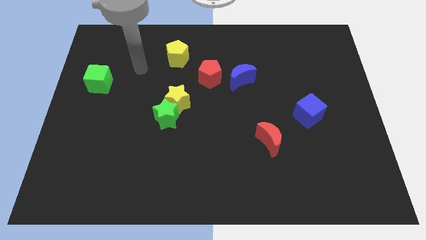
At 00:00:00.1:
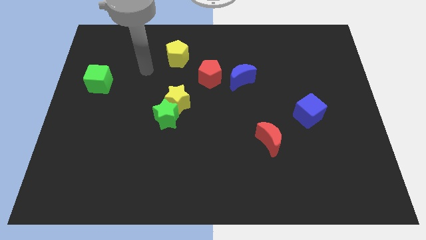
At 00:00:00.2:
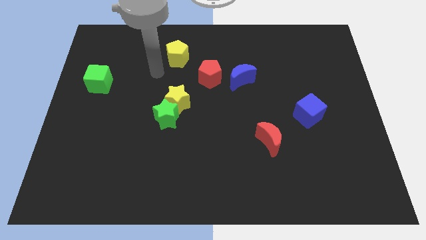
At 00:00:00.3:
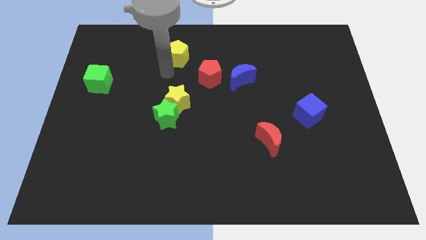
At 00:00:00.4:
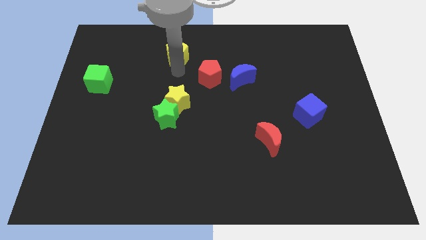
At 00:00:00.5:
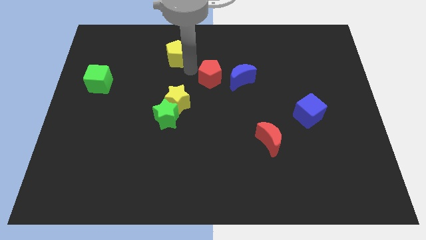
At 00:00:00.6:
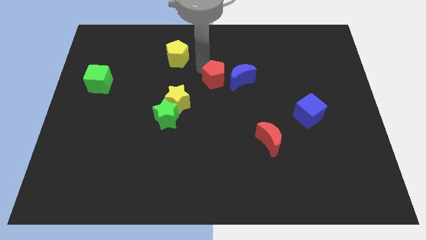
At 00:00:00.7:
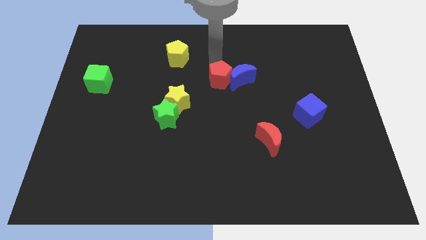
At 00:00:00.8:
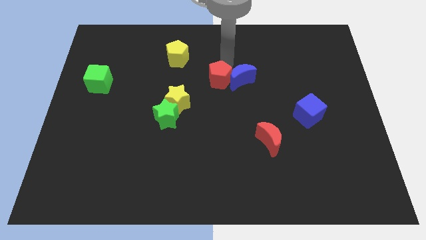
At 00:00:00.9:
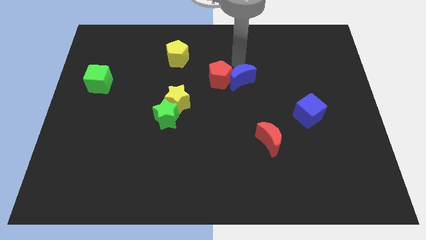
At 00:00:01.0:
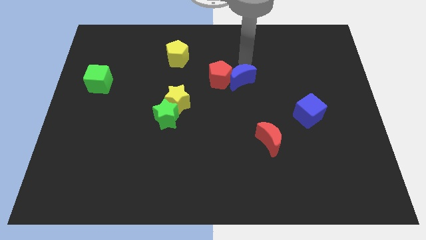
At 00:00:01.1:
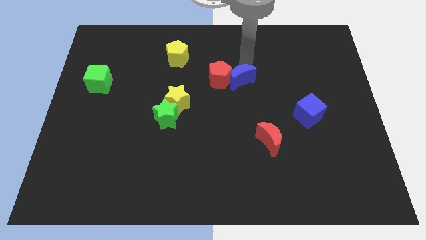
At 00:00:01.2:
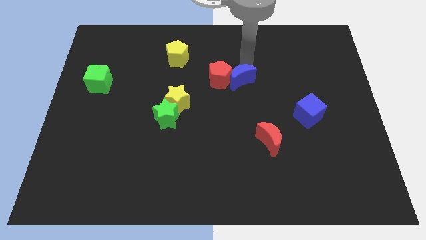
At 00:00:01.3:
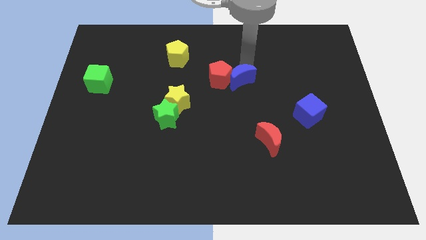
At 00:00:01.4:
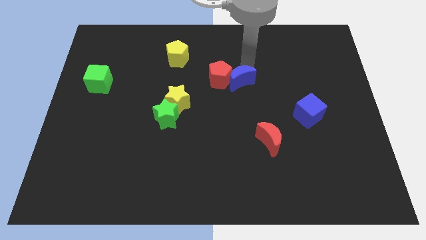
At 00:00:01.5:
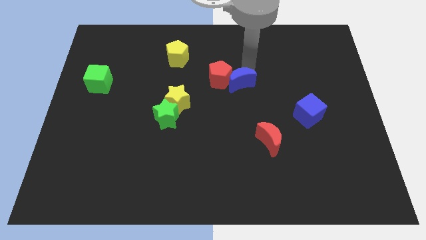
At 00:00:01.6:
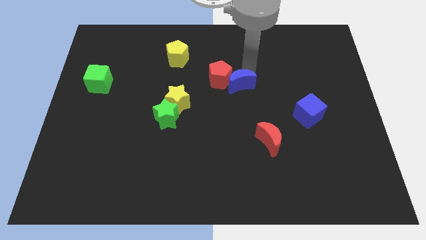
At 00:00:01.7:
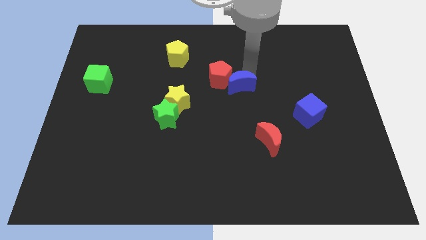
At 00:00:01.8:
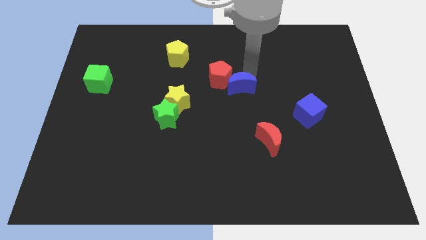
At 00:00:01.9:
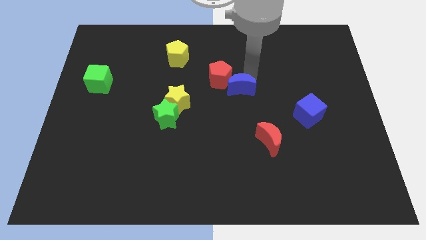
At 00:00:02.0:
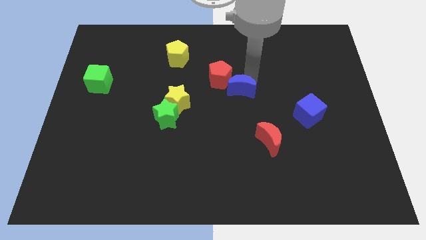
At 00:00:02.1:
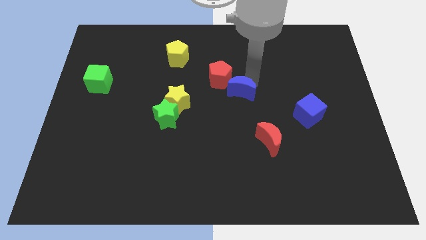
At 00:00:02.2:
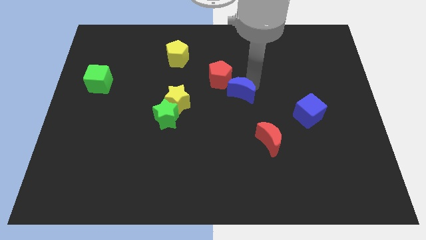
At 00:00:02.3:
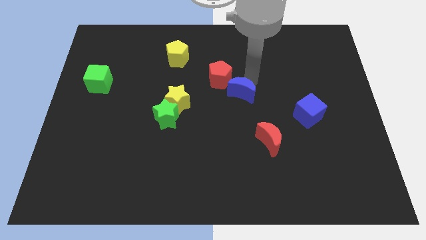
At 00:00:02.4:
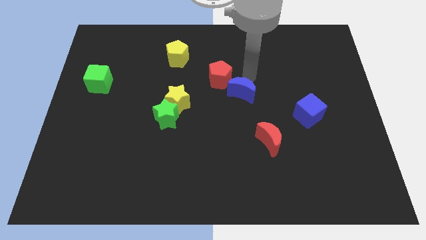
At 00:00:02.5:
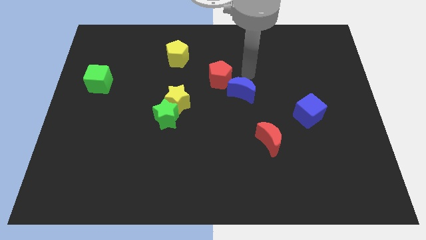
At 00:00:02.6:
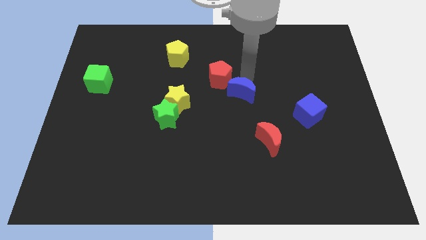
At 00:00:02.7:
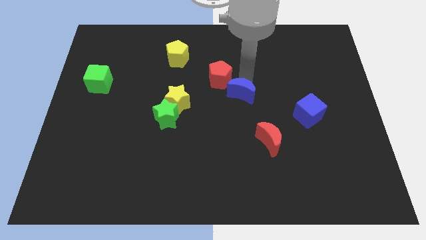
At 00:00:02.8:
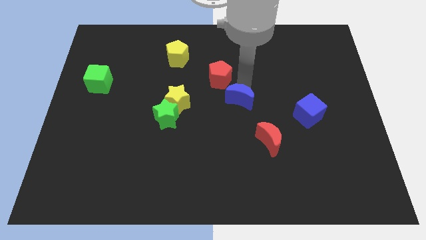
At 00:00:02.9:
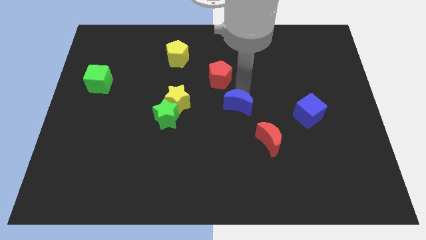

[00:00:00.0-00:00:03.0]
move the blue moon downwards slightly

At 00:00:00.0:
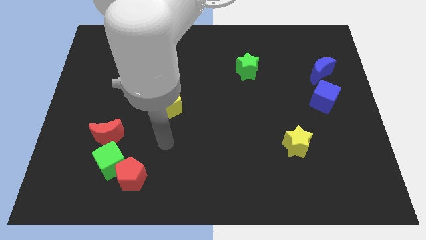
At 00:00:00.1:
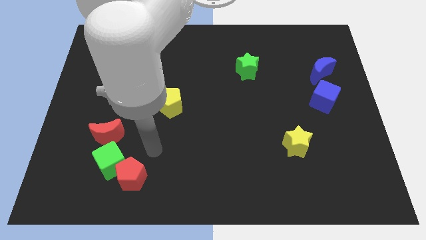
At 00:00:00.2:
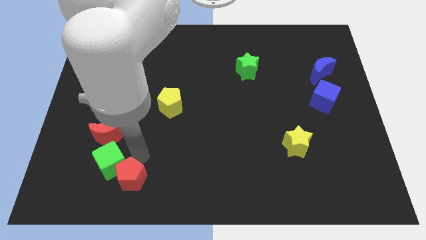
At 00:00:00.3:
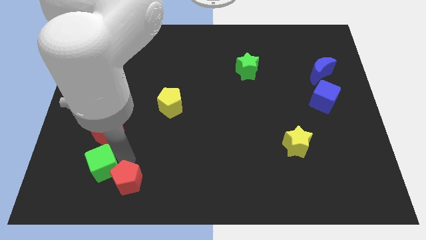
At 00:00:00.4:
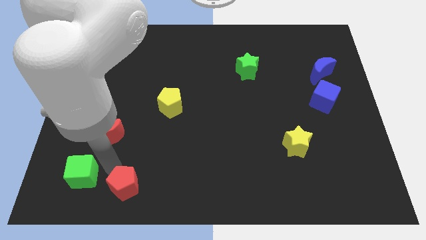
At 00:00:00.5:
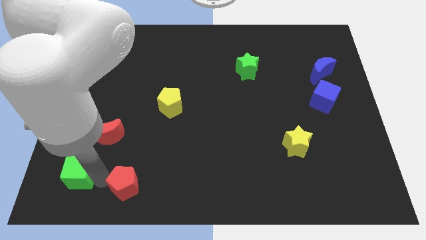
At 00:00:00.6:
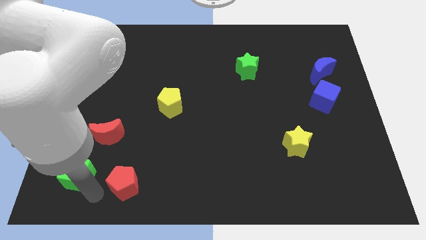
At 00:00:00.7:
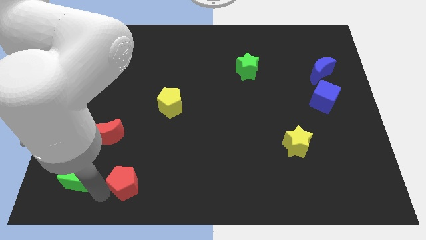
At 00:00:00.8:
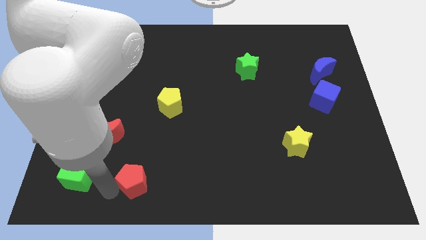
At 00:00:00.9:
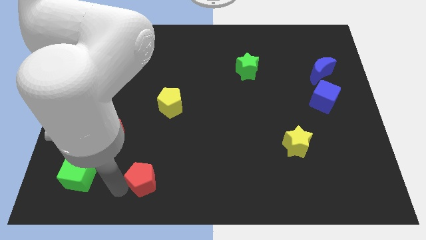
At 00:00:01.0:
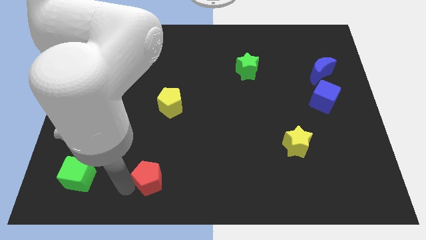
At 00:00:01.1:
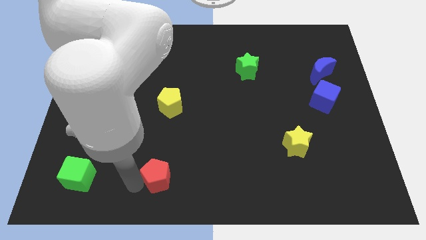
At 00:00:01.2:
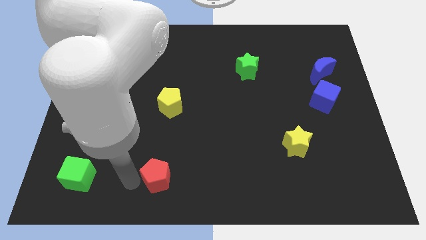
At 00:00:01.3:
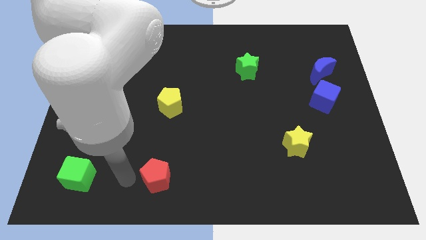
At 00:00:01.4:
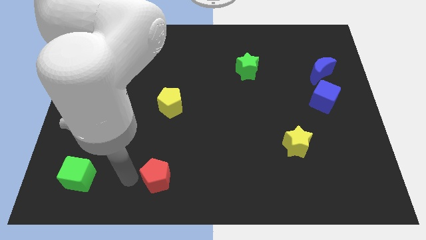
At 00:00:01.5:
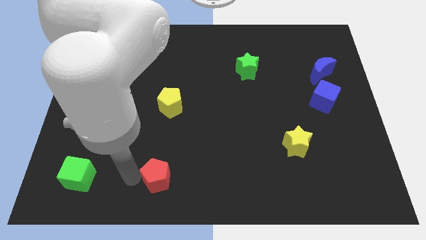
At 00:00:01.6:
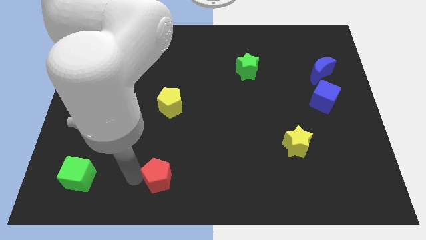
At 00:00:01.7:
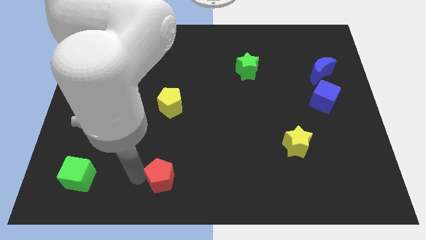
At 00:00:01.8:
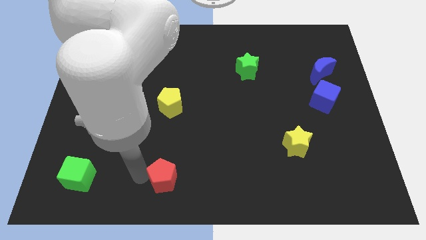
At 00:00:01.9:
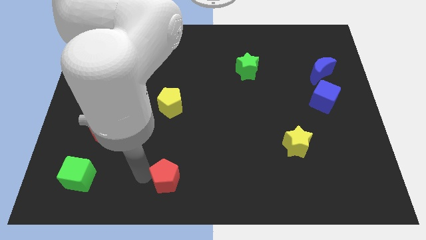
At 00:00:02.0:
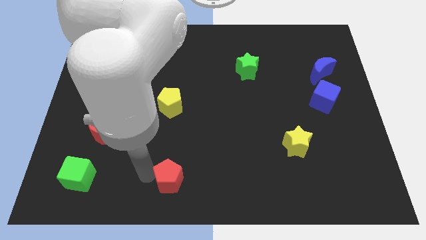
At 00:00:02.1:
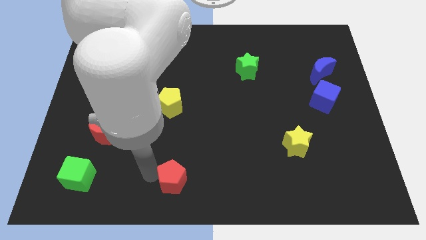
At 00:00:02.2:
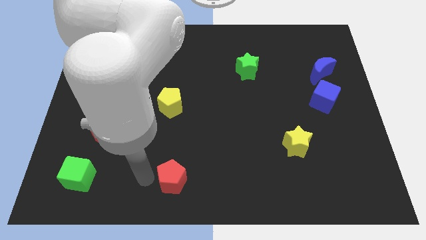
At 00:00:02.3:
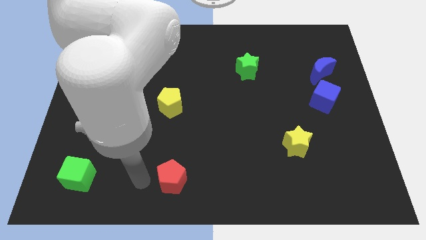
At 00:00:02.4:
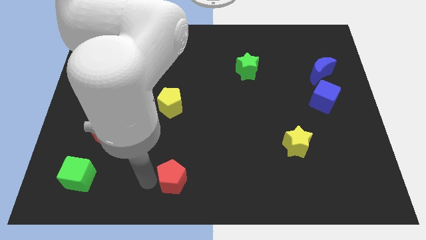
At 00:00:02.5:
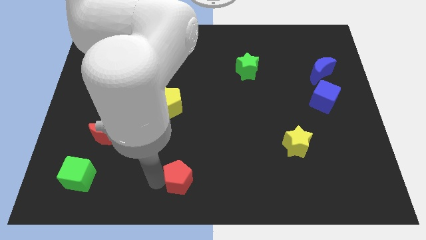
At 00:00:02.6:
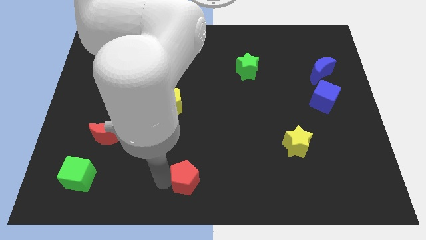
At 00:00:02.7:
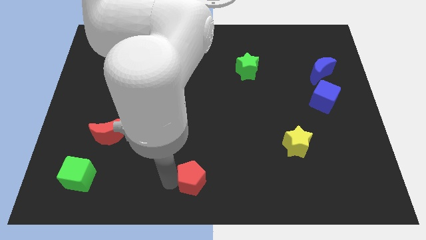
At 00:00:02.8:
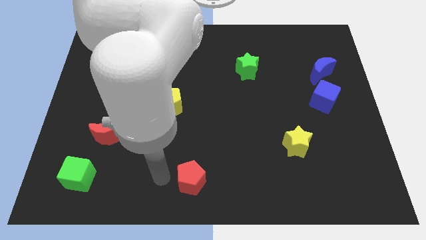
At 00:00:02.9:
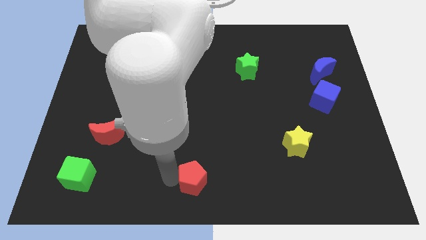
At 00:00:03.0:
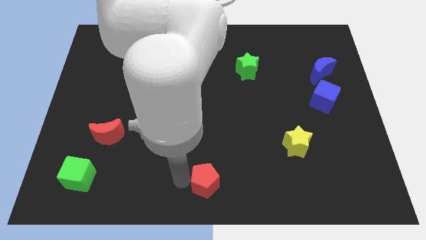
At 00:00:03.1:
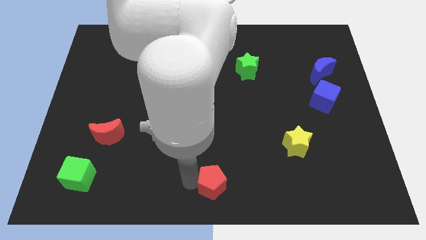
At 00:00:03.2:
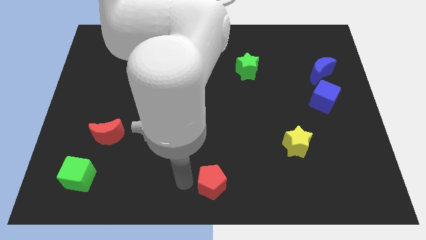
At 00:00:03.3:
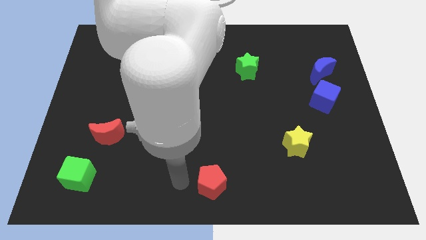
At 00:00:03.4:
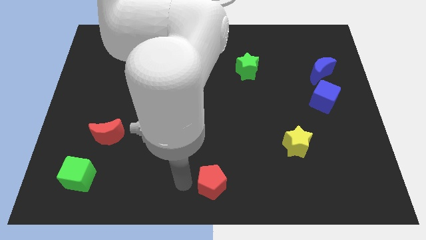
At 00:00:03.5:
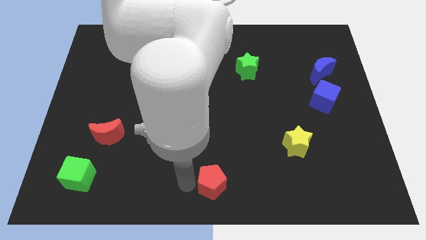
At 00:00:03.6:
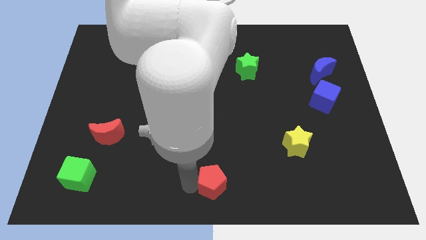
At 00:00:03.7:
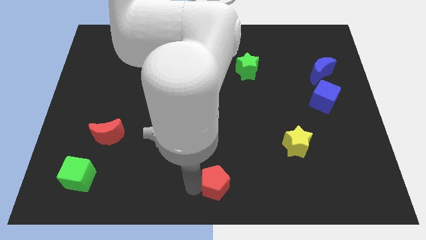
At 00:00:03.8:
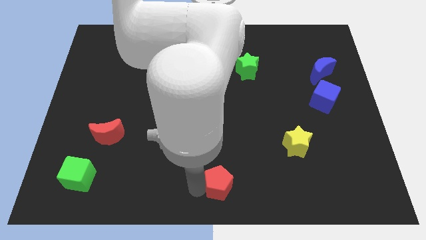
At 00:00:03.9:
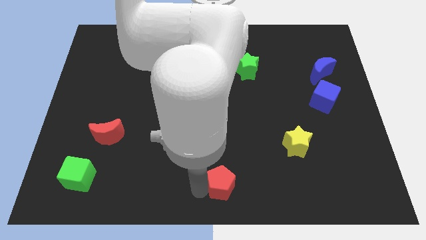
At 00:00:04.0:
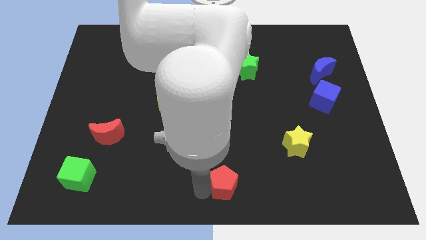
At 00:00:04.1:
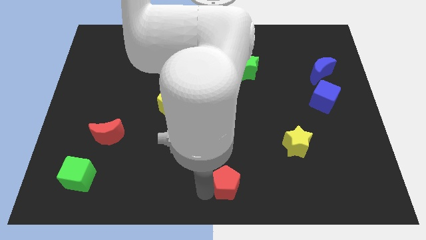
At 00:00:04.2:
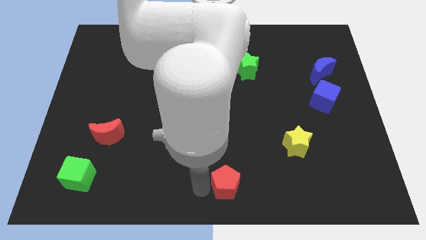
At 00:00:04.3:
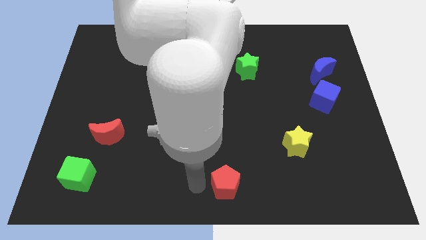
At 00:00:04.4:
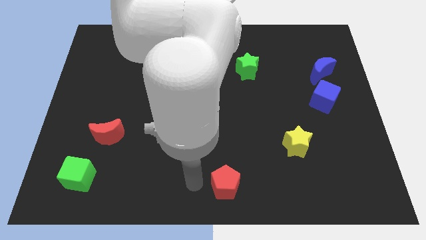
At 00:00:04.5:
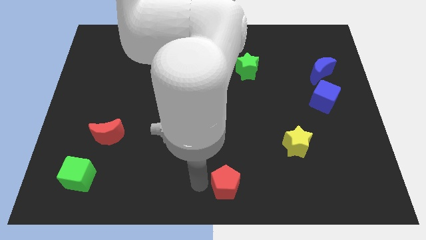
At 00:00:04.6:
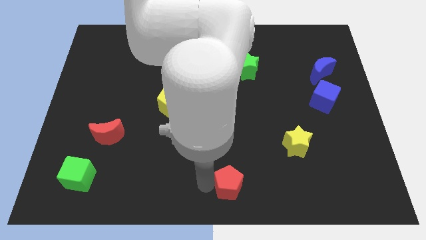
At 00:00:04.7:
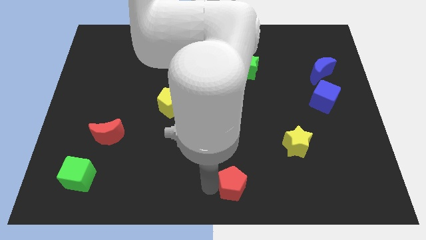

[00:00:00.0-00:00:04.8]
slide the red pentagon to the right
